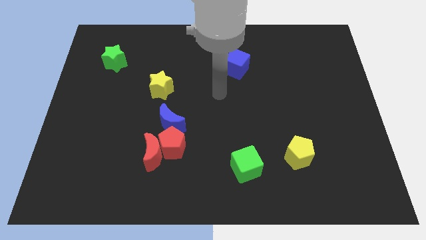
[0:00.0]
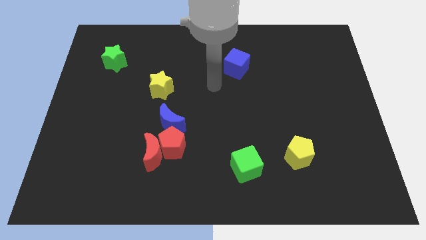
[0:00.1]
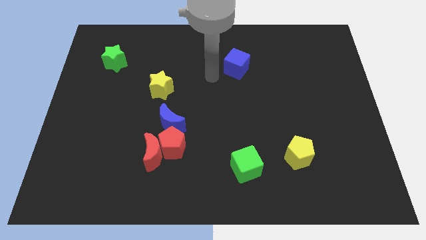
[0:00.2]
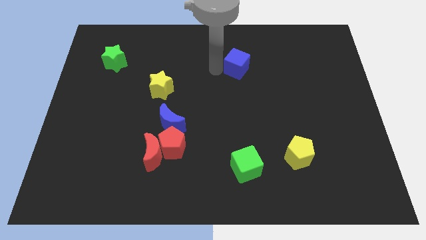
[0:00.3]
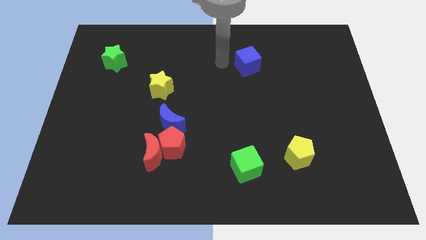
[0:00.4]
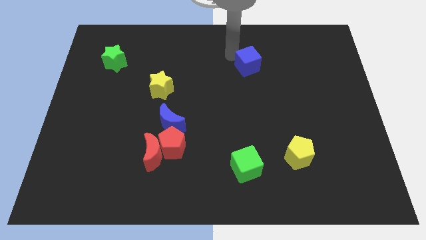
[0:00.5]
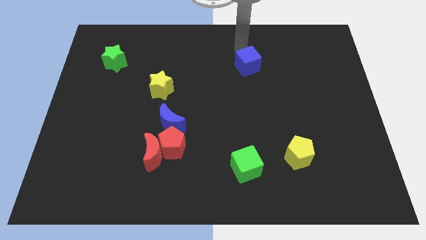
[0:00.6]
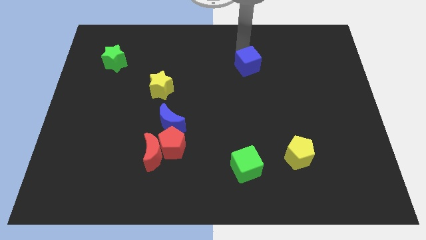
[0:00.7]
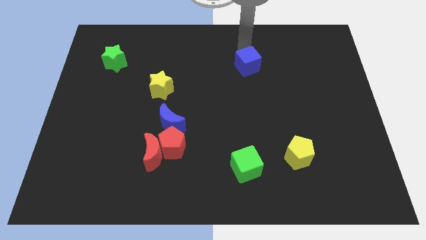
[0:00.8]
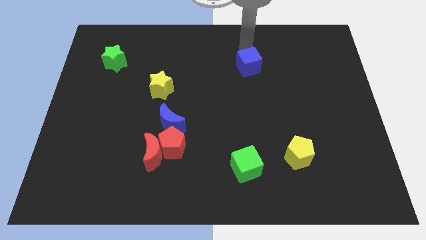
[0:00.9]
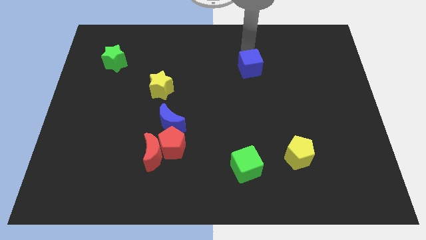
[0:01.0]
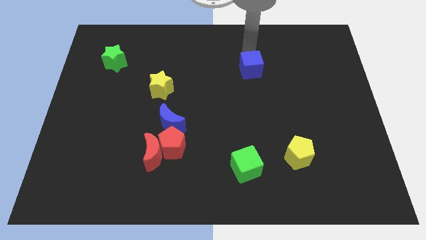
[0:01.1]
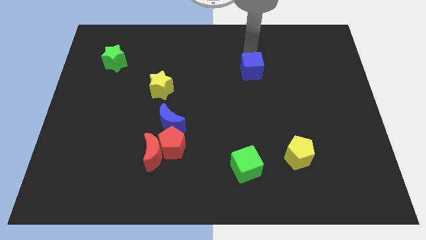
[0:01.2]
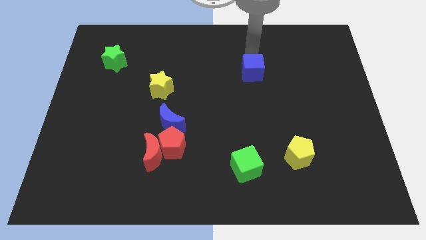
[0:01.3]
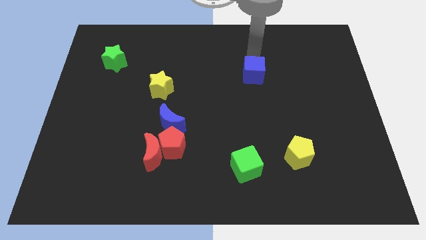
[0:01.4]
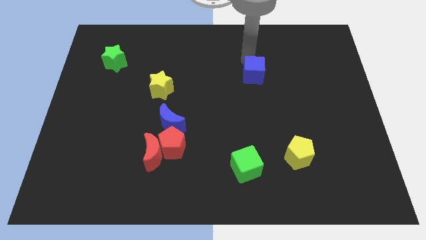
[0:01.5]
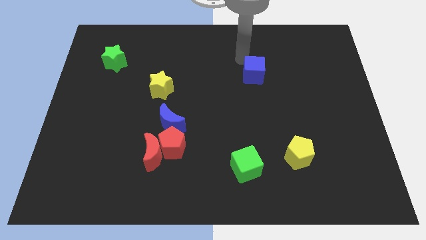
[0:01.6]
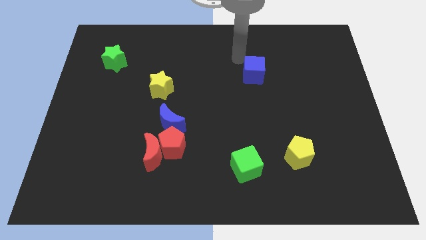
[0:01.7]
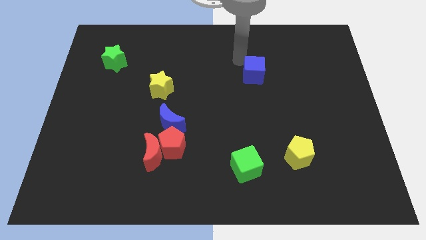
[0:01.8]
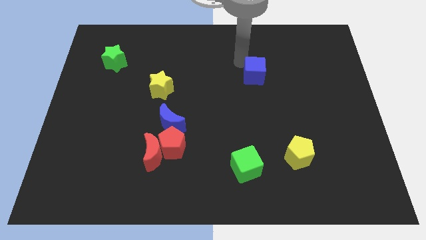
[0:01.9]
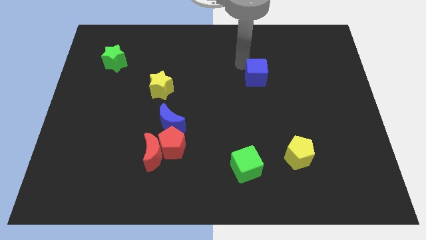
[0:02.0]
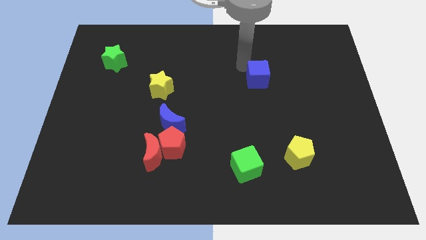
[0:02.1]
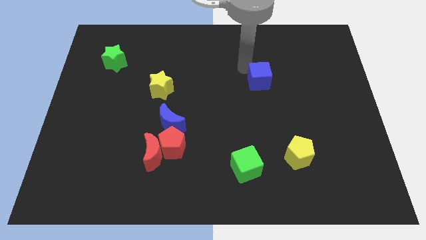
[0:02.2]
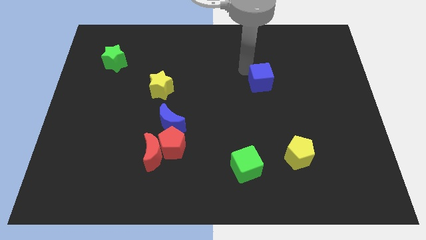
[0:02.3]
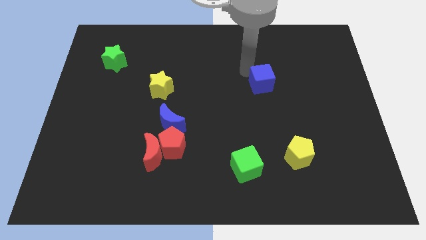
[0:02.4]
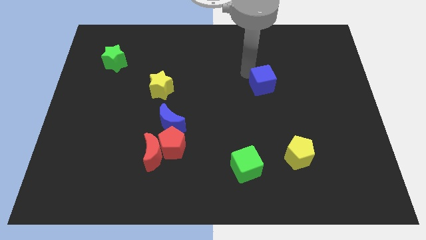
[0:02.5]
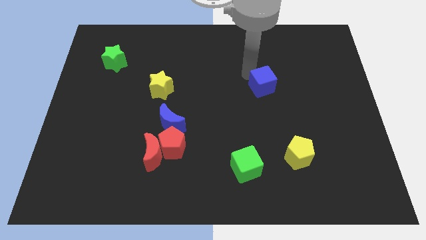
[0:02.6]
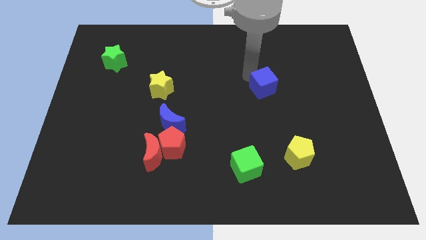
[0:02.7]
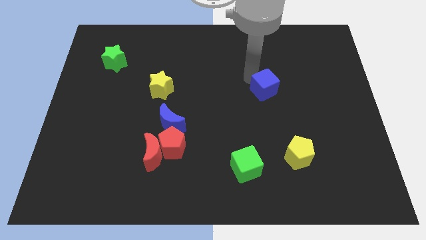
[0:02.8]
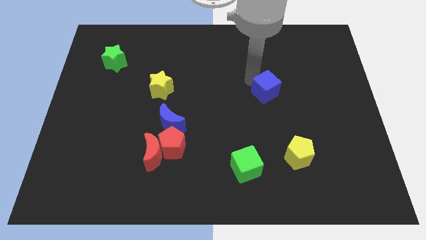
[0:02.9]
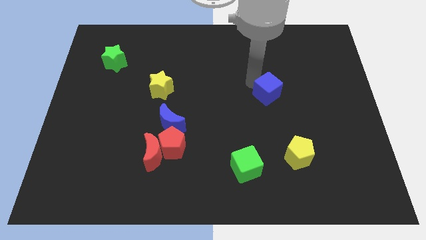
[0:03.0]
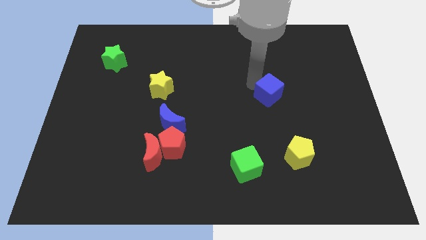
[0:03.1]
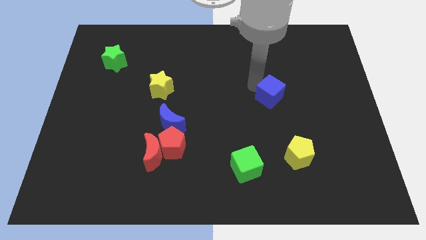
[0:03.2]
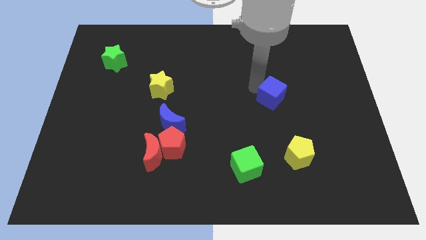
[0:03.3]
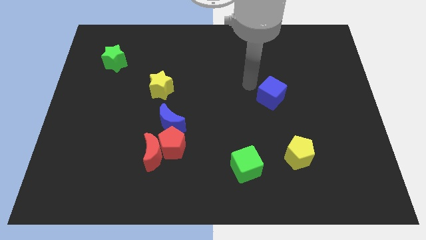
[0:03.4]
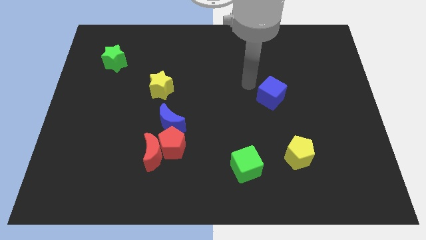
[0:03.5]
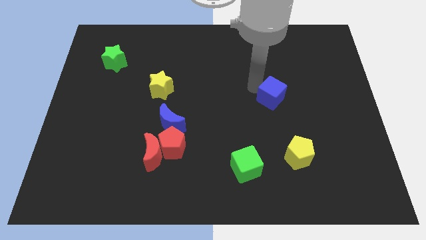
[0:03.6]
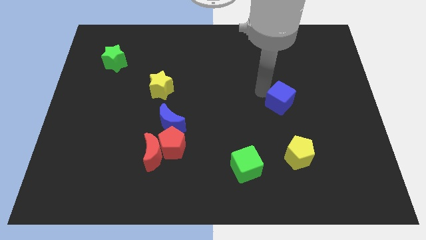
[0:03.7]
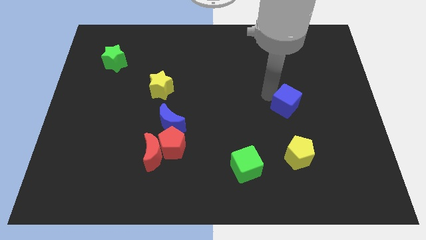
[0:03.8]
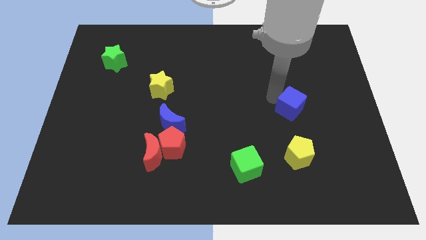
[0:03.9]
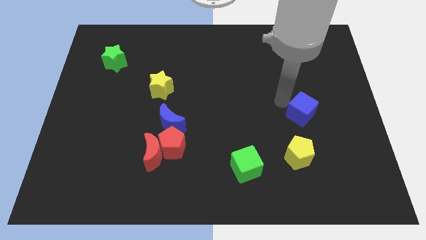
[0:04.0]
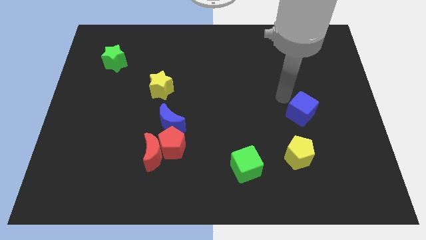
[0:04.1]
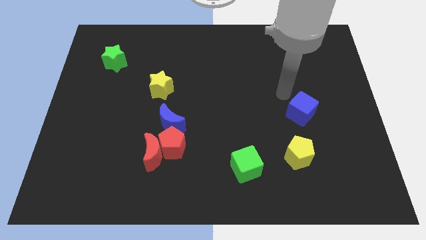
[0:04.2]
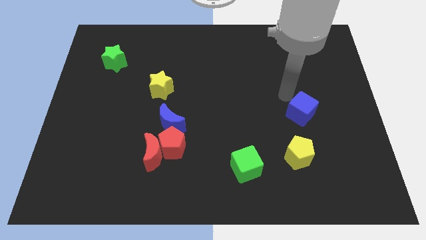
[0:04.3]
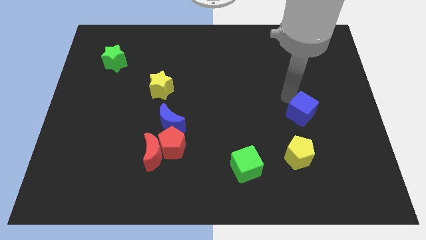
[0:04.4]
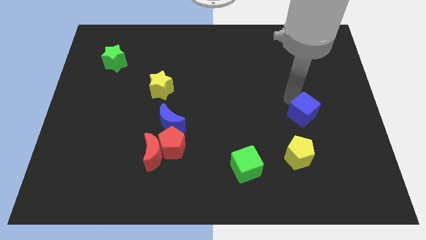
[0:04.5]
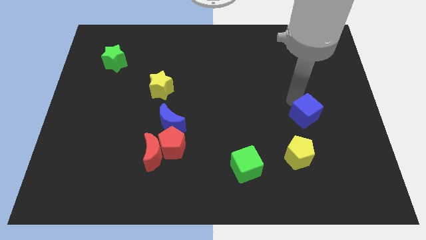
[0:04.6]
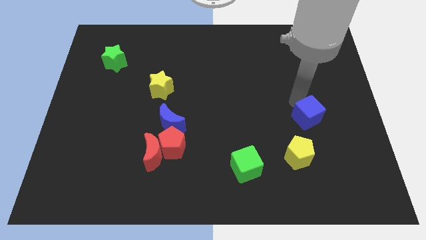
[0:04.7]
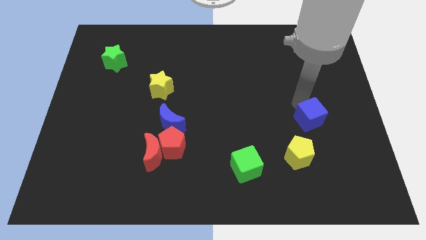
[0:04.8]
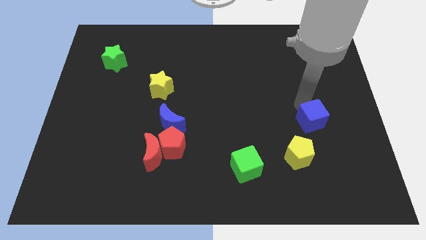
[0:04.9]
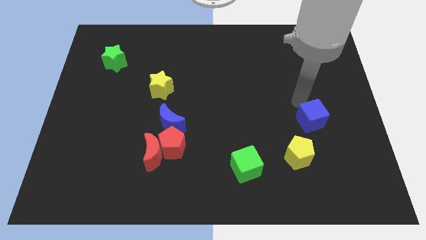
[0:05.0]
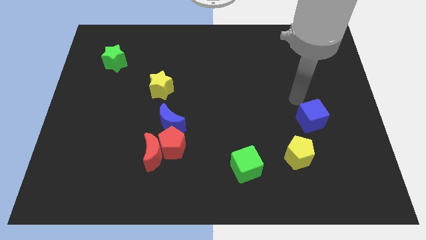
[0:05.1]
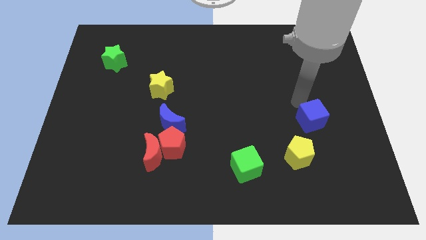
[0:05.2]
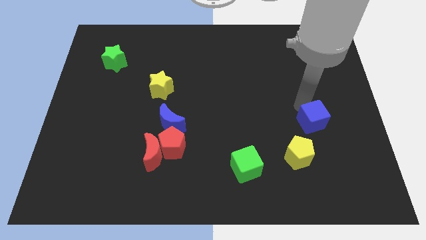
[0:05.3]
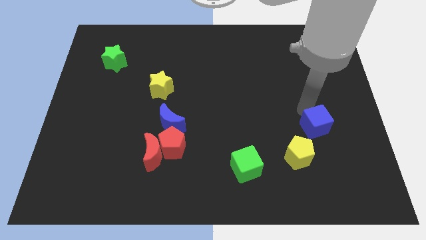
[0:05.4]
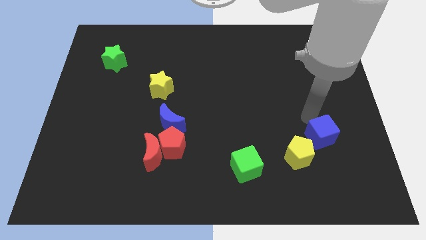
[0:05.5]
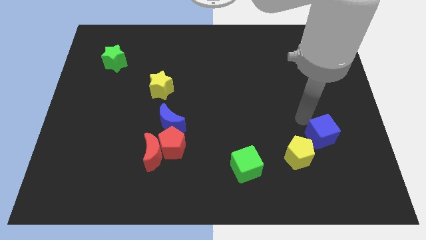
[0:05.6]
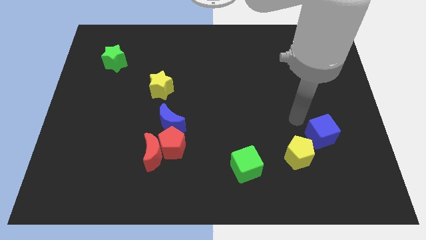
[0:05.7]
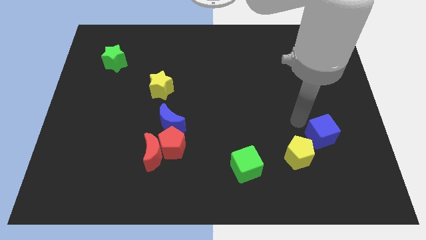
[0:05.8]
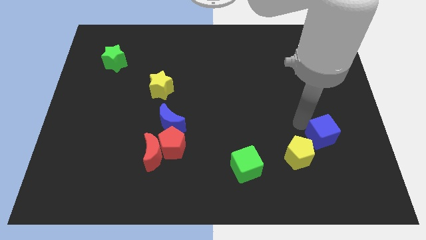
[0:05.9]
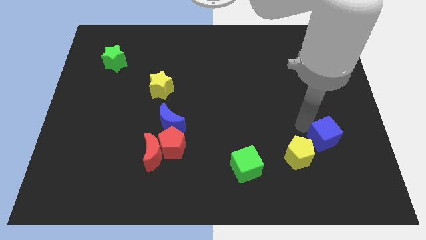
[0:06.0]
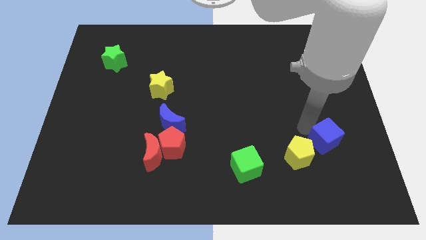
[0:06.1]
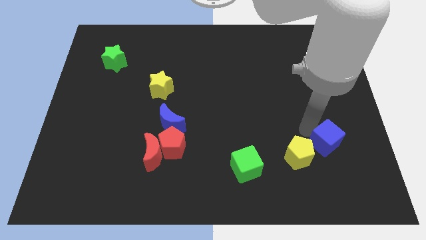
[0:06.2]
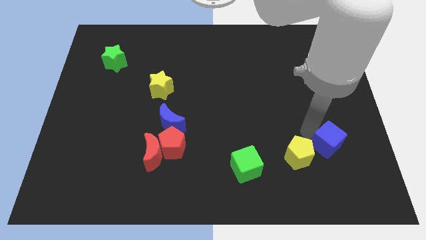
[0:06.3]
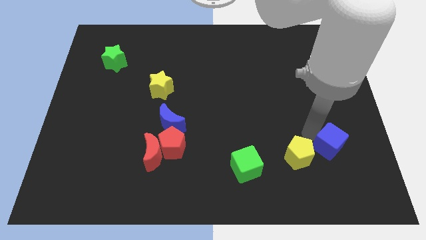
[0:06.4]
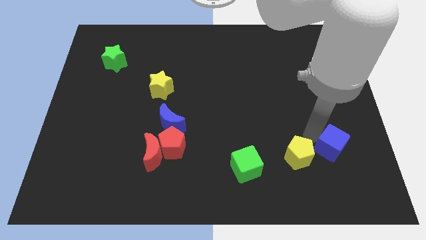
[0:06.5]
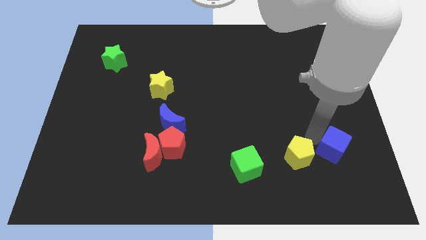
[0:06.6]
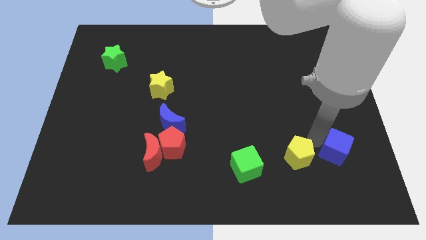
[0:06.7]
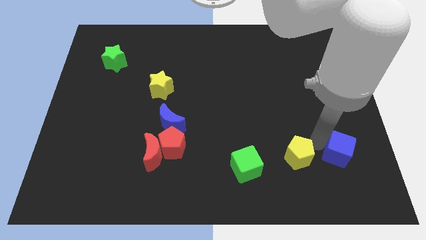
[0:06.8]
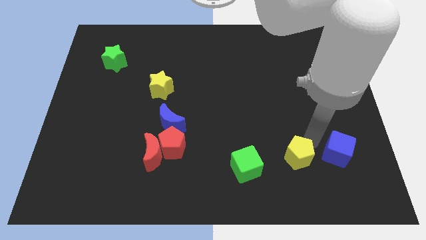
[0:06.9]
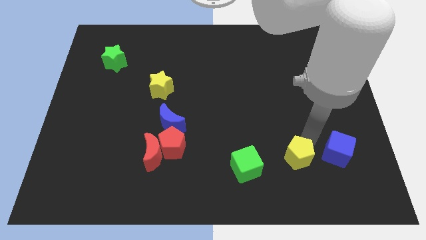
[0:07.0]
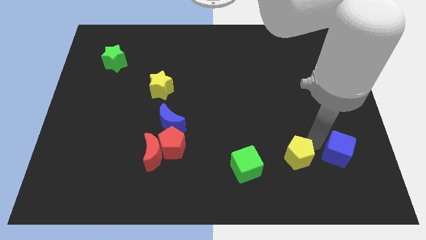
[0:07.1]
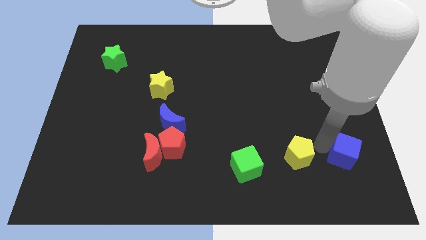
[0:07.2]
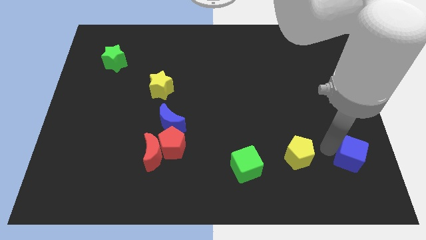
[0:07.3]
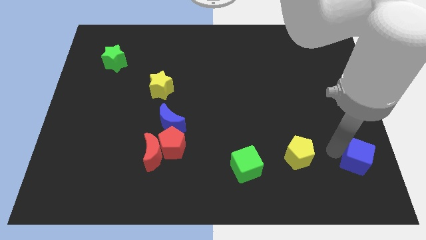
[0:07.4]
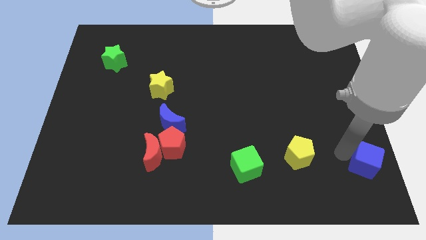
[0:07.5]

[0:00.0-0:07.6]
put the blue cube to the bottom right
